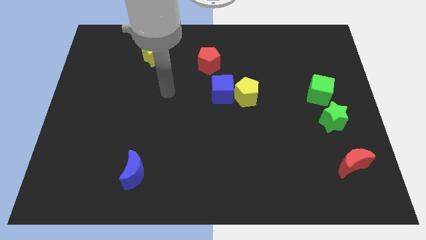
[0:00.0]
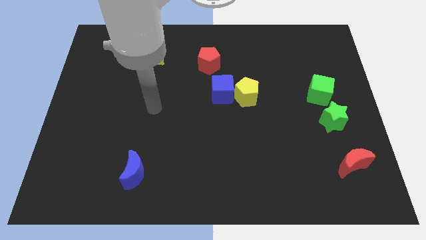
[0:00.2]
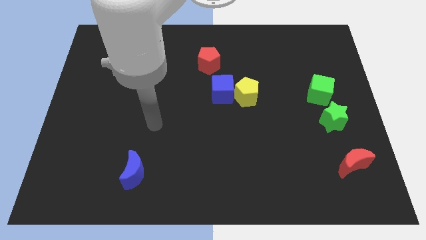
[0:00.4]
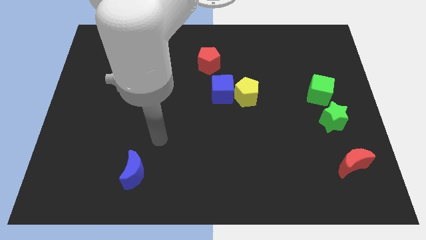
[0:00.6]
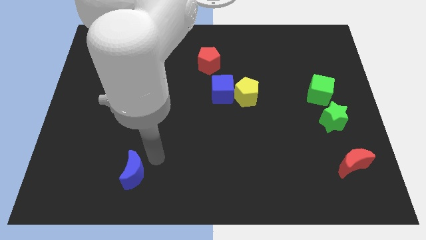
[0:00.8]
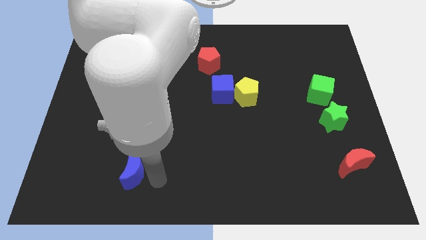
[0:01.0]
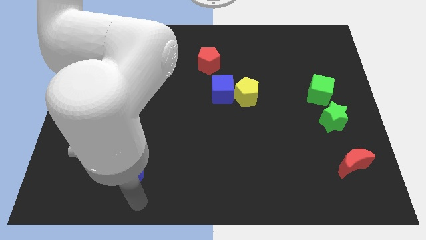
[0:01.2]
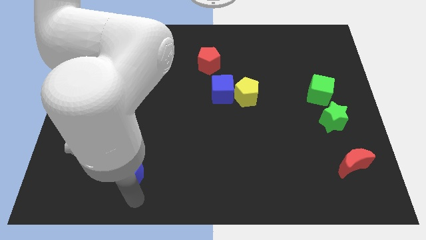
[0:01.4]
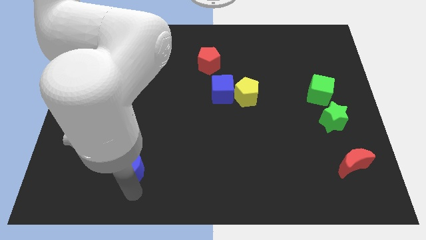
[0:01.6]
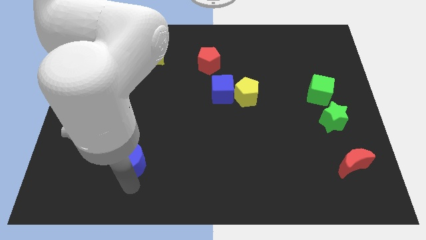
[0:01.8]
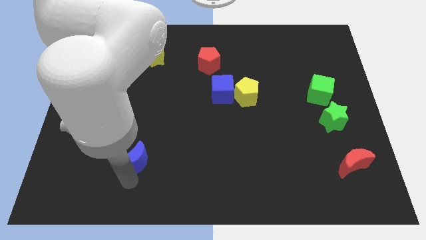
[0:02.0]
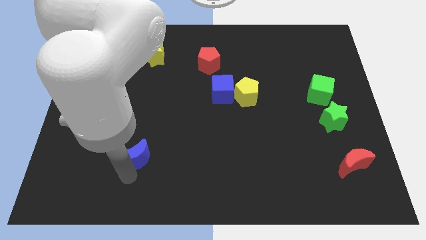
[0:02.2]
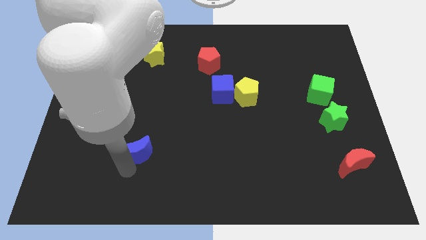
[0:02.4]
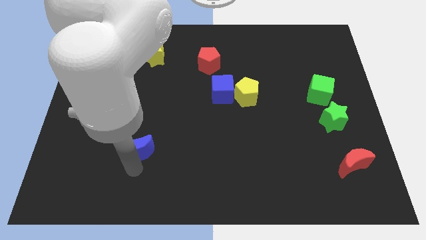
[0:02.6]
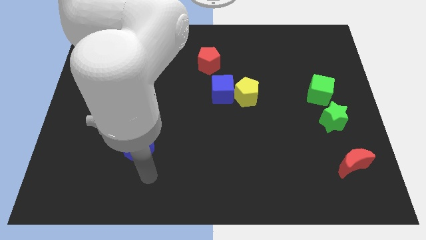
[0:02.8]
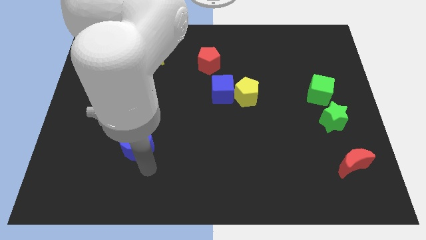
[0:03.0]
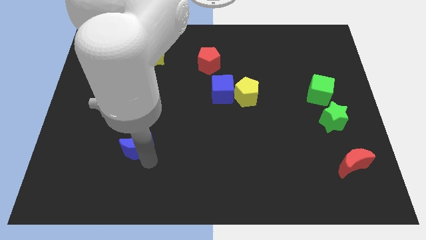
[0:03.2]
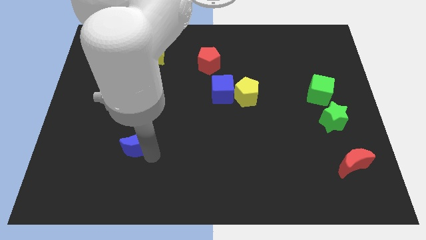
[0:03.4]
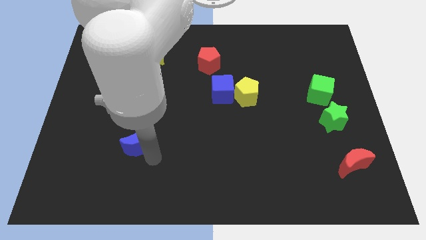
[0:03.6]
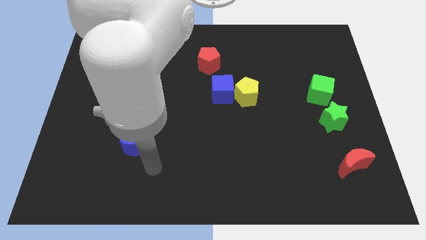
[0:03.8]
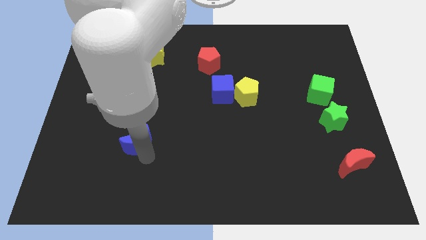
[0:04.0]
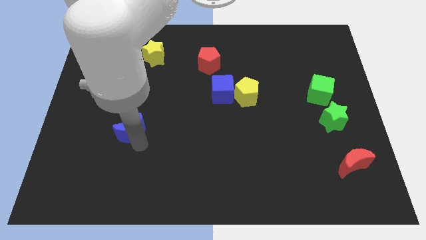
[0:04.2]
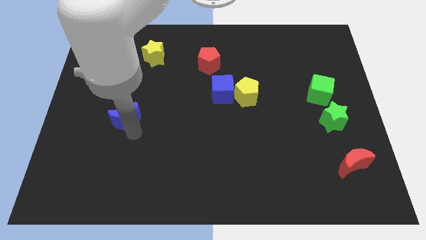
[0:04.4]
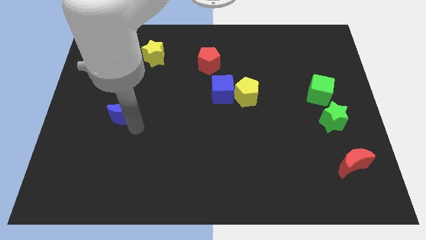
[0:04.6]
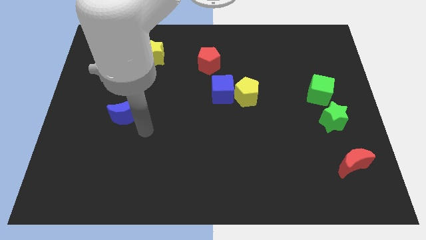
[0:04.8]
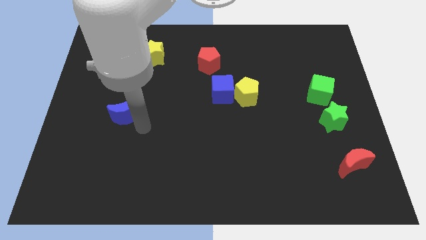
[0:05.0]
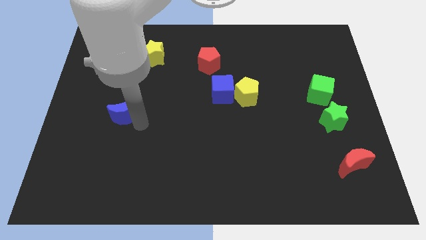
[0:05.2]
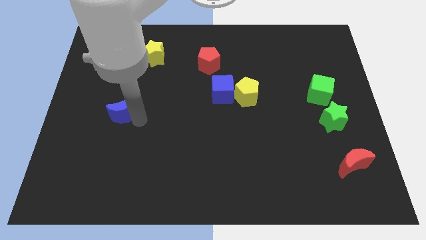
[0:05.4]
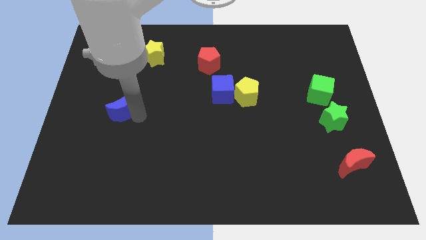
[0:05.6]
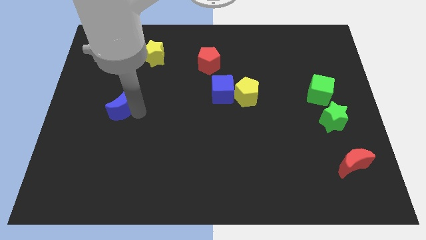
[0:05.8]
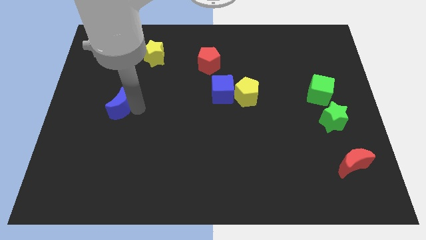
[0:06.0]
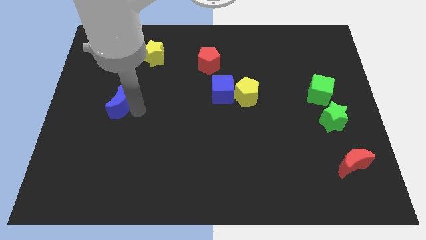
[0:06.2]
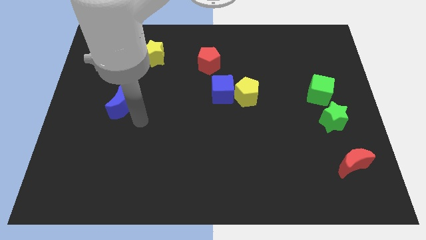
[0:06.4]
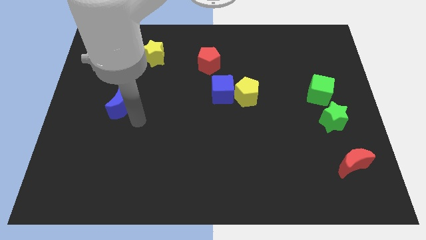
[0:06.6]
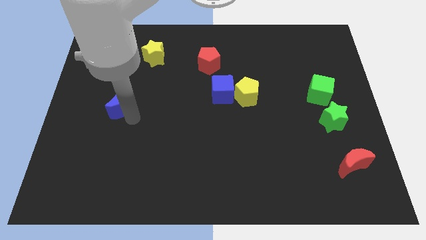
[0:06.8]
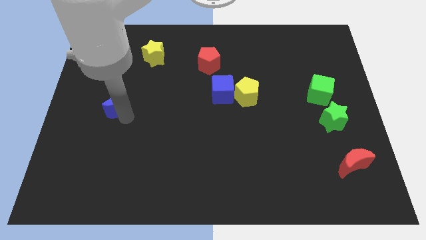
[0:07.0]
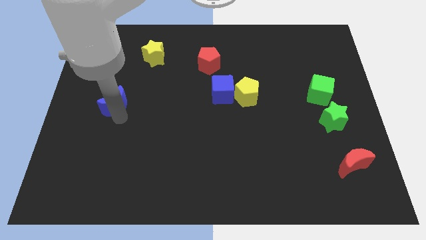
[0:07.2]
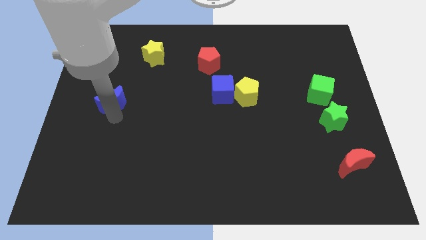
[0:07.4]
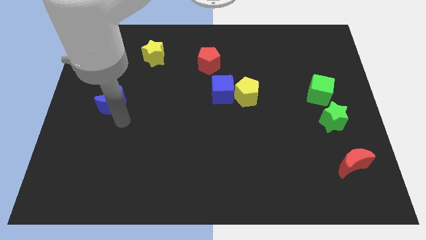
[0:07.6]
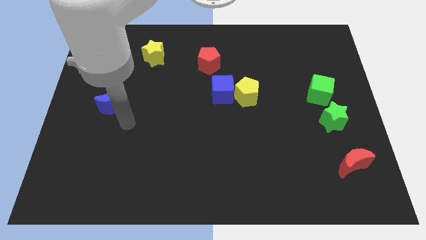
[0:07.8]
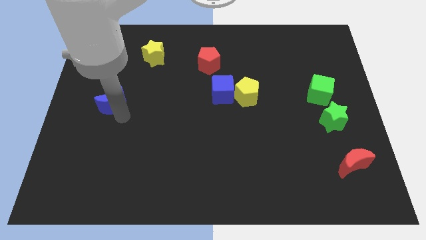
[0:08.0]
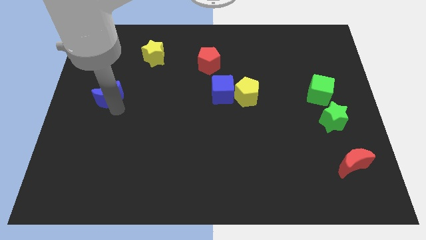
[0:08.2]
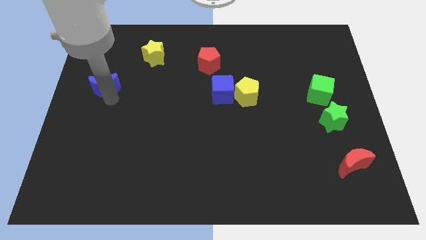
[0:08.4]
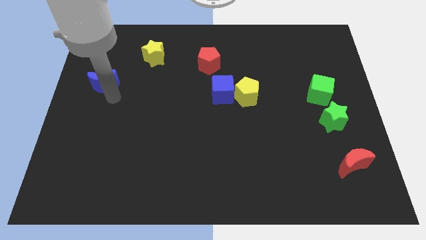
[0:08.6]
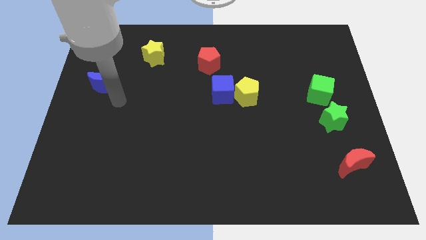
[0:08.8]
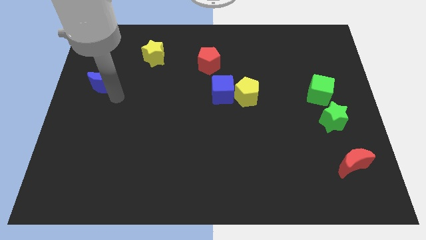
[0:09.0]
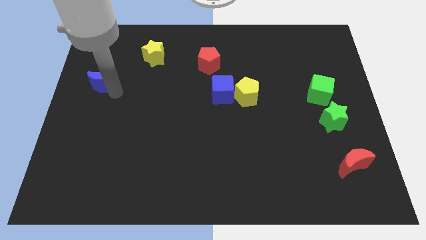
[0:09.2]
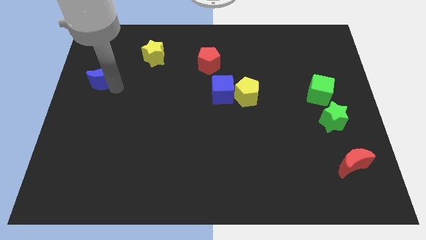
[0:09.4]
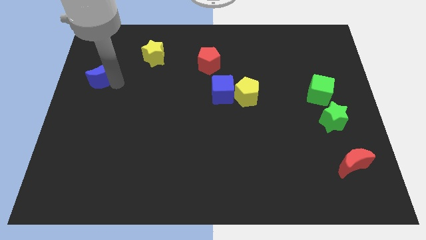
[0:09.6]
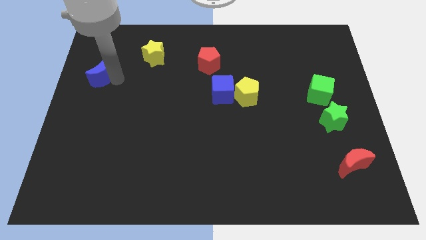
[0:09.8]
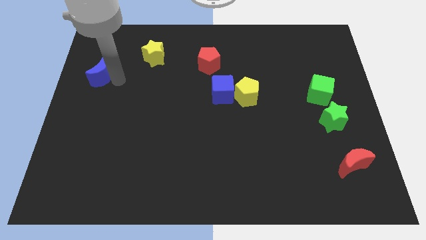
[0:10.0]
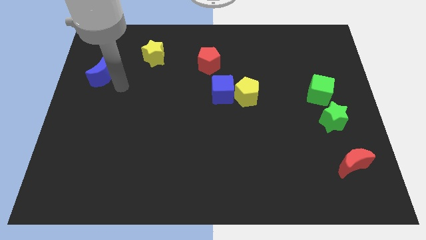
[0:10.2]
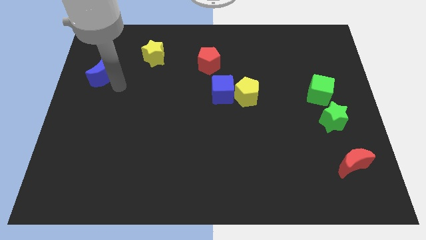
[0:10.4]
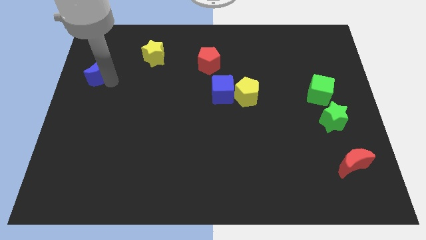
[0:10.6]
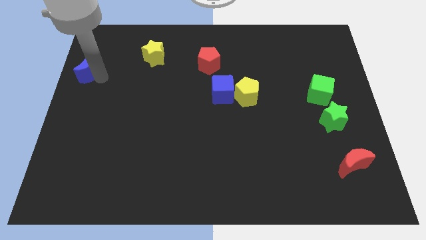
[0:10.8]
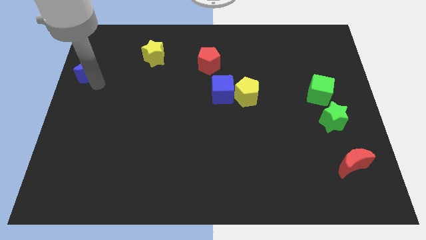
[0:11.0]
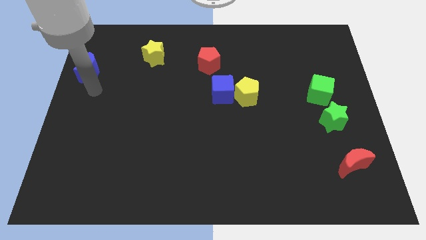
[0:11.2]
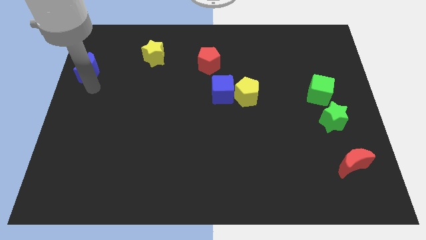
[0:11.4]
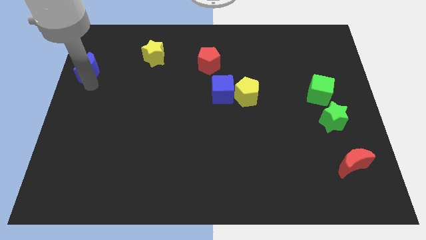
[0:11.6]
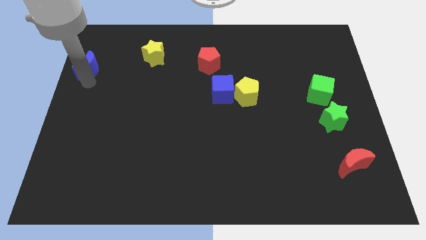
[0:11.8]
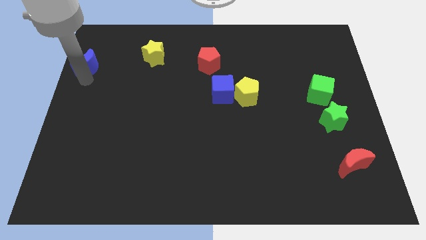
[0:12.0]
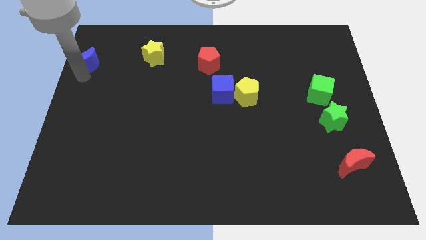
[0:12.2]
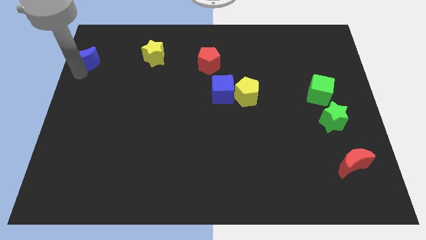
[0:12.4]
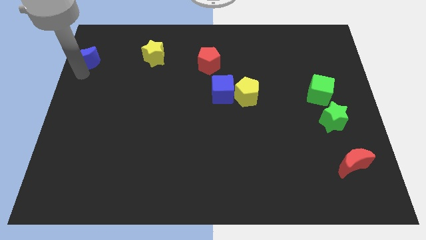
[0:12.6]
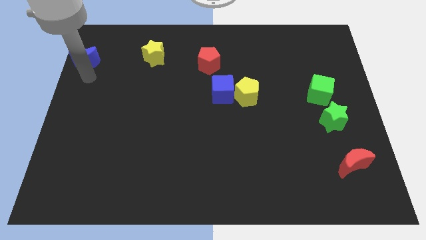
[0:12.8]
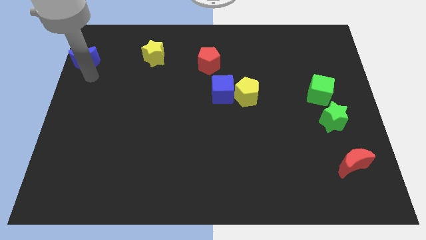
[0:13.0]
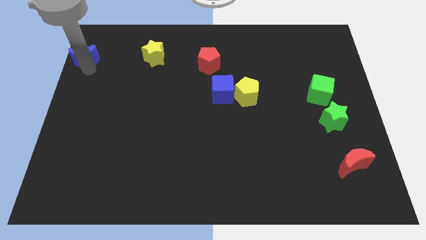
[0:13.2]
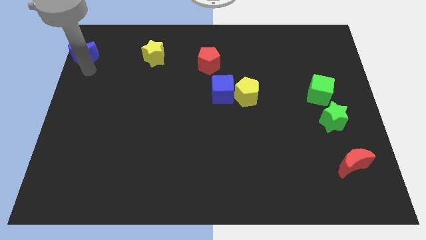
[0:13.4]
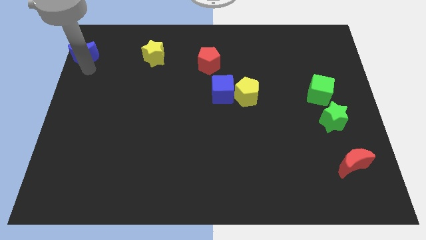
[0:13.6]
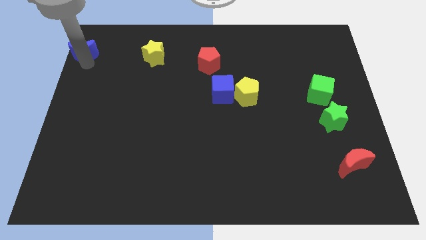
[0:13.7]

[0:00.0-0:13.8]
slide the blue moon to the upper left corner
